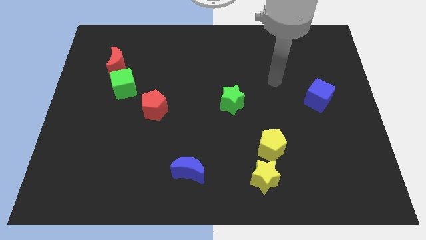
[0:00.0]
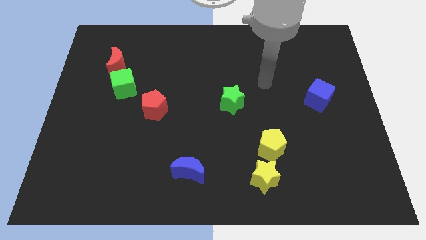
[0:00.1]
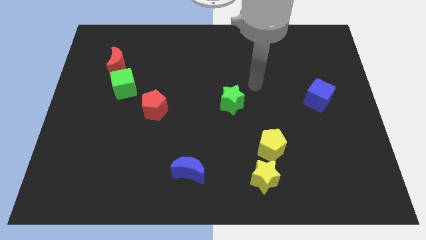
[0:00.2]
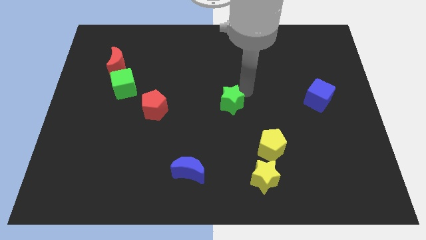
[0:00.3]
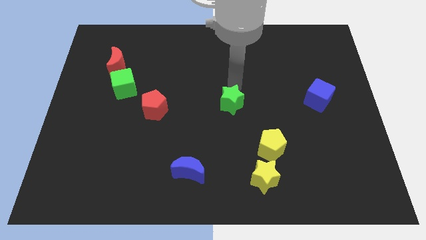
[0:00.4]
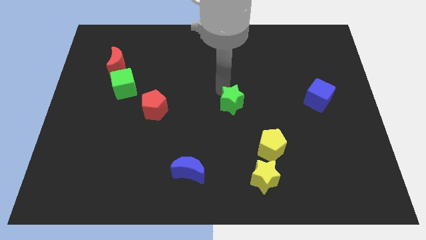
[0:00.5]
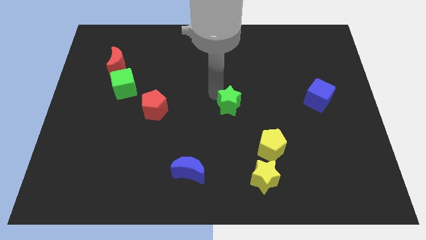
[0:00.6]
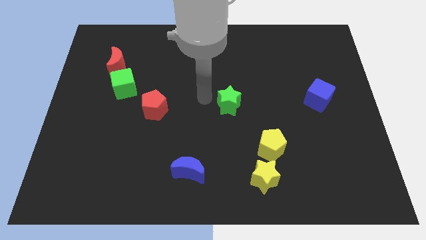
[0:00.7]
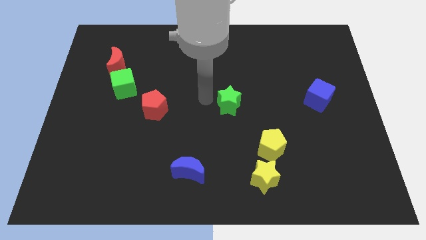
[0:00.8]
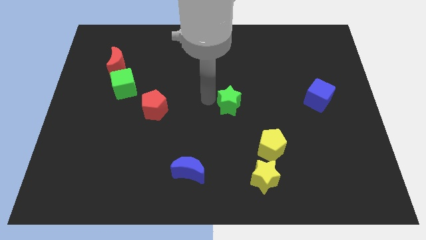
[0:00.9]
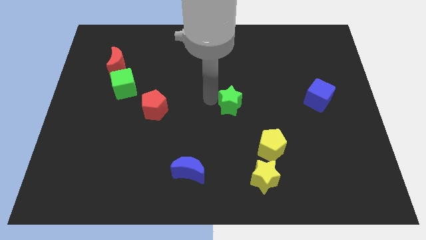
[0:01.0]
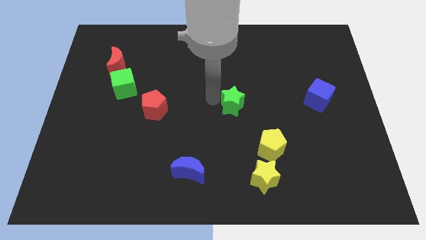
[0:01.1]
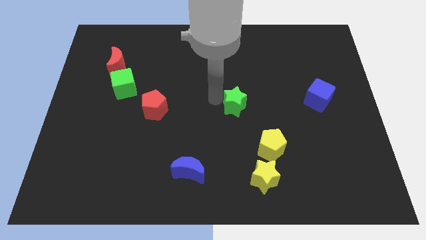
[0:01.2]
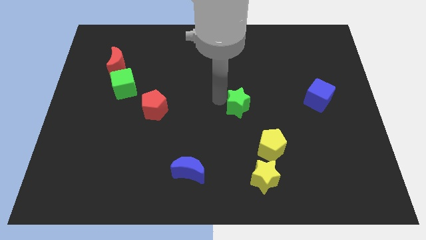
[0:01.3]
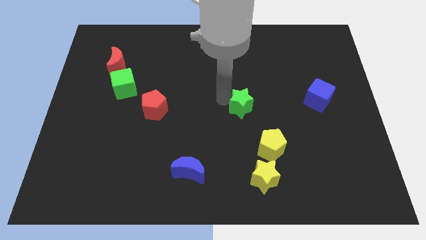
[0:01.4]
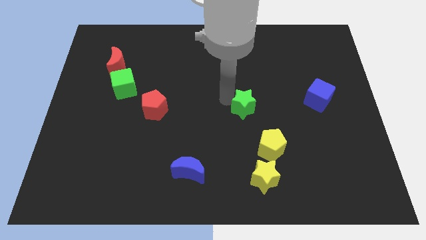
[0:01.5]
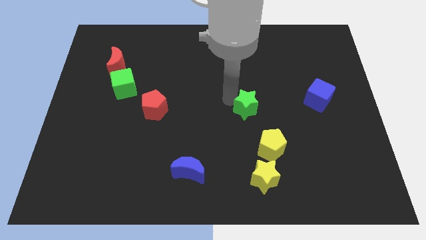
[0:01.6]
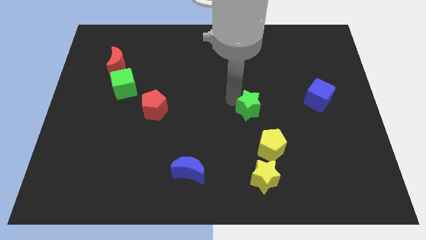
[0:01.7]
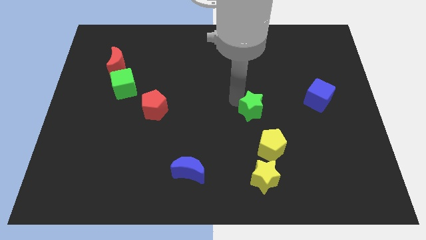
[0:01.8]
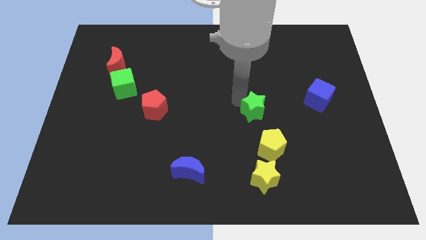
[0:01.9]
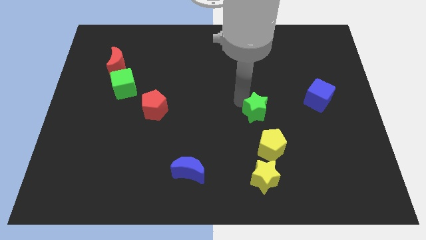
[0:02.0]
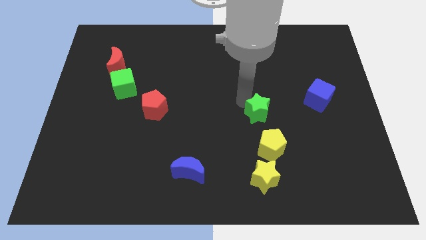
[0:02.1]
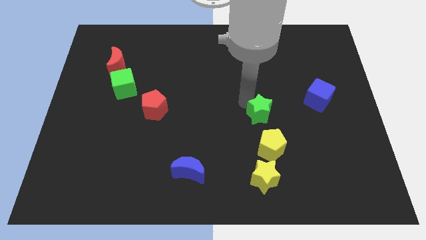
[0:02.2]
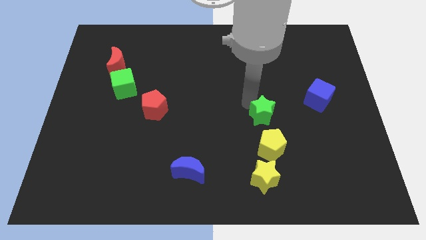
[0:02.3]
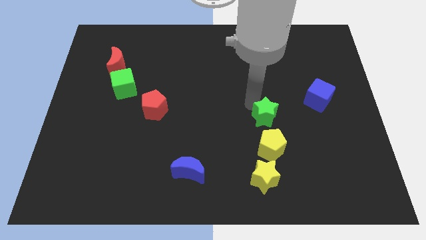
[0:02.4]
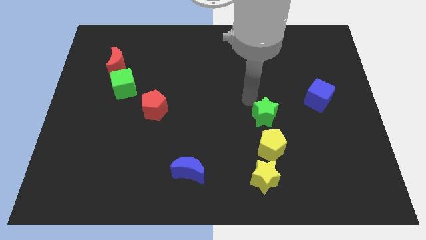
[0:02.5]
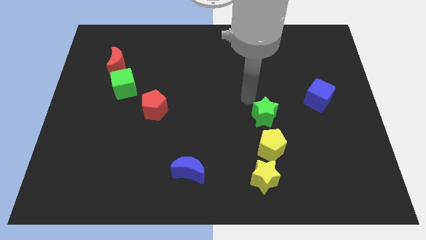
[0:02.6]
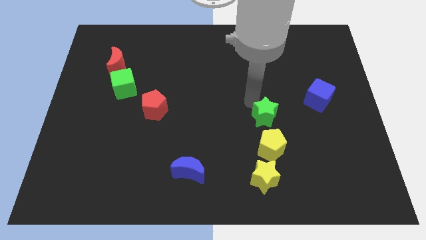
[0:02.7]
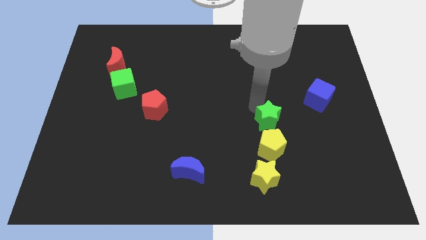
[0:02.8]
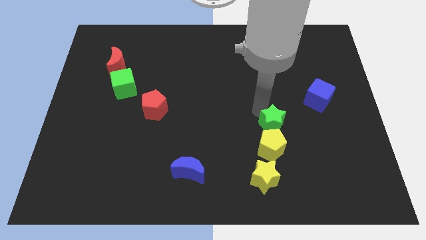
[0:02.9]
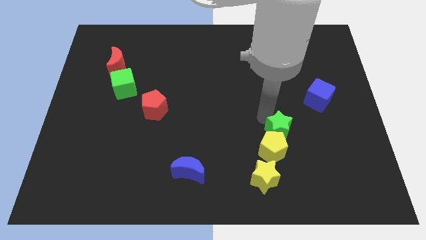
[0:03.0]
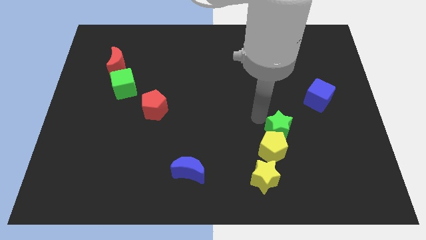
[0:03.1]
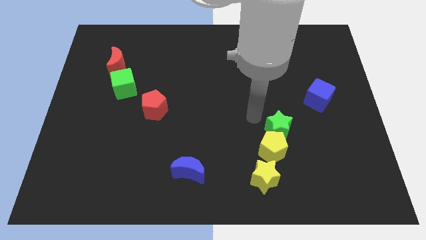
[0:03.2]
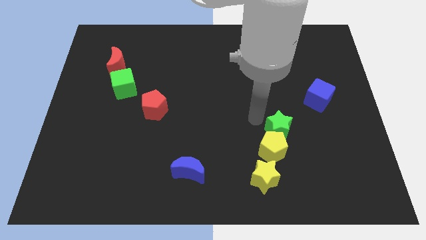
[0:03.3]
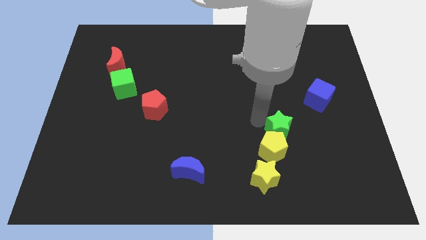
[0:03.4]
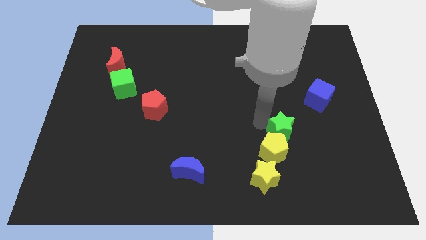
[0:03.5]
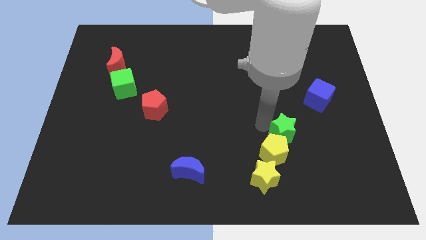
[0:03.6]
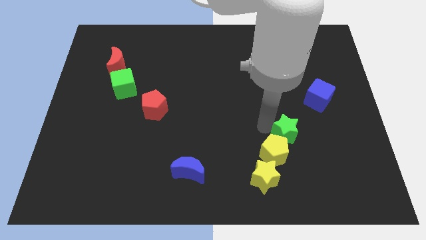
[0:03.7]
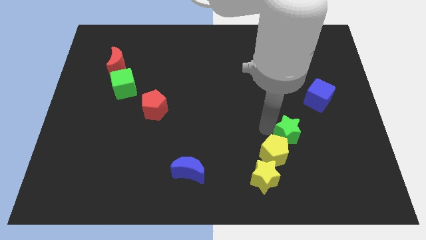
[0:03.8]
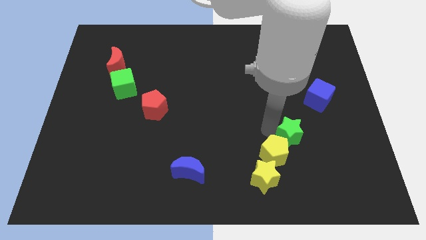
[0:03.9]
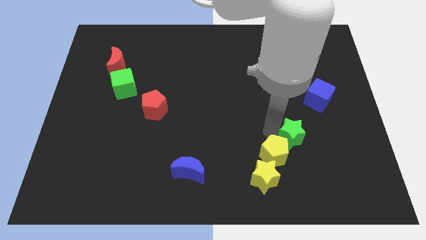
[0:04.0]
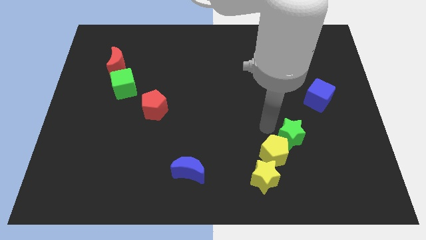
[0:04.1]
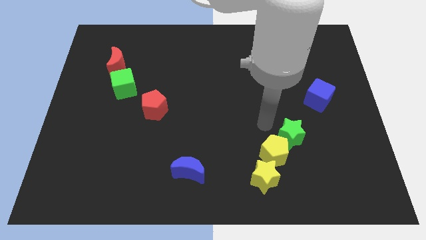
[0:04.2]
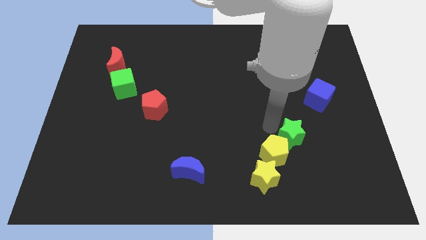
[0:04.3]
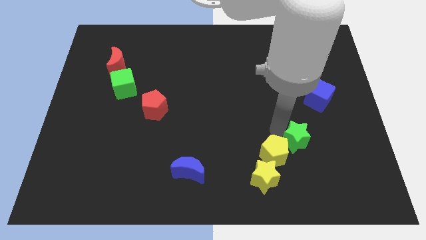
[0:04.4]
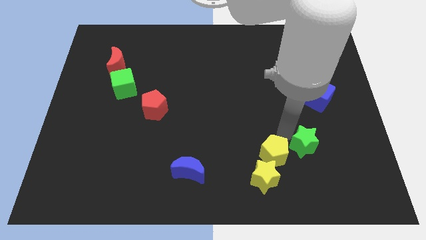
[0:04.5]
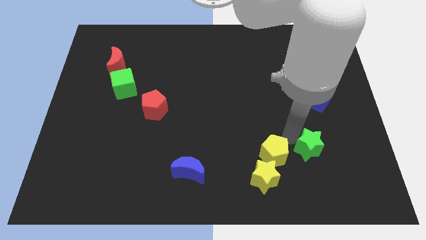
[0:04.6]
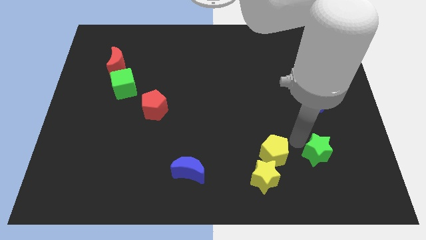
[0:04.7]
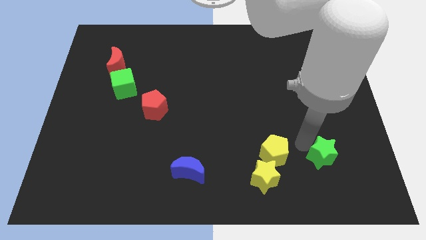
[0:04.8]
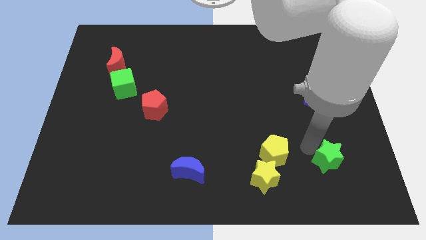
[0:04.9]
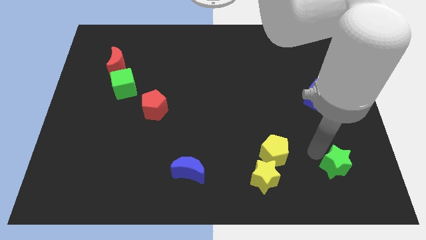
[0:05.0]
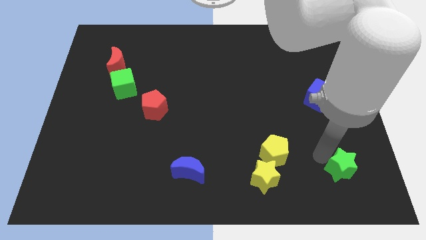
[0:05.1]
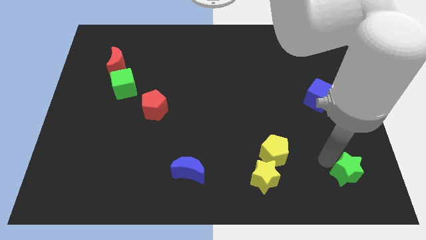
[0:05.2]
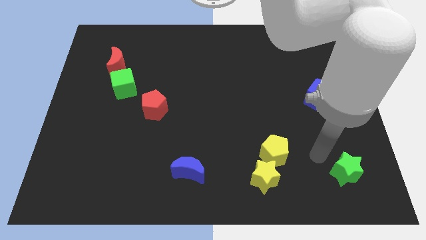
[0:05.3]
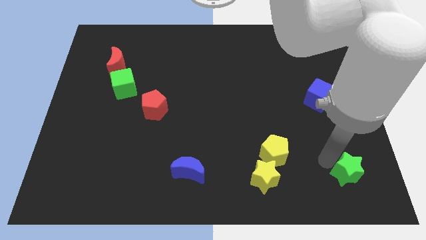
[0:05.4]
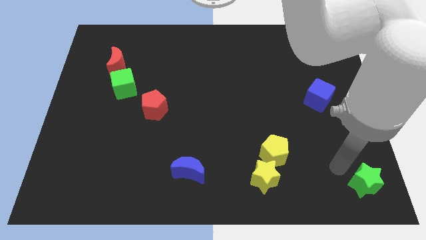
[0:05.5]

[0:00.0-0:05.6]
slide the green star to the bottom right corner

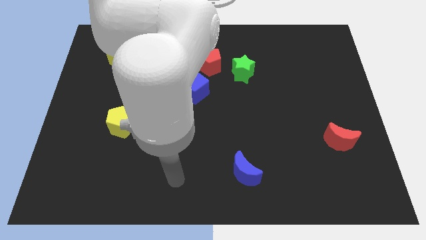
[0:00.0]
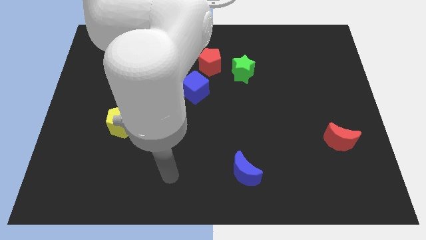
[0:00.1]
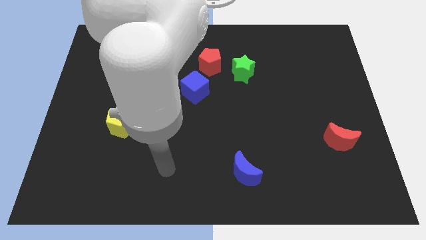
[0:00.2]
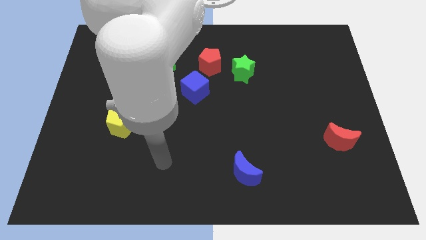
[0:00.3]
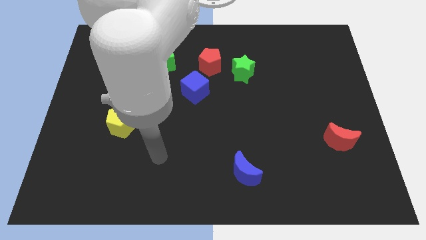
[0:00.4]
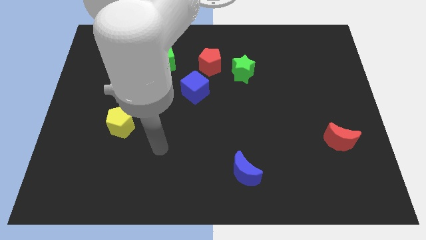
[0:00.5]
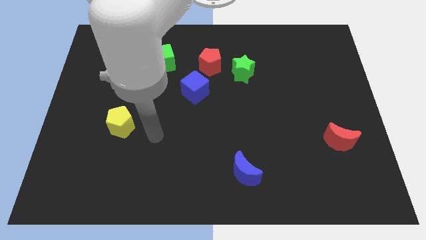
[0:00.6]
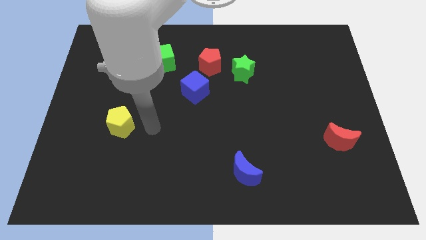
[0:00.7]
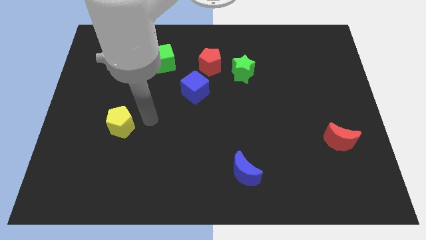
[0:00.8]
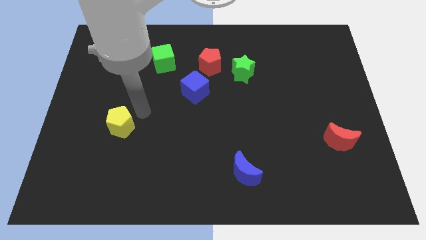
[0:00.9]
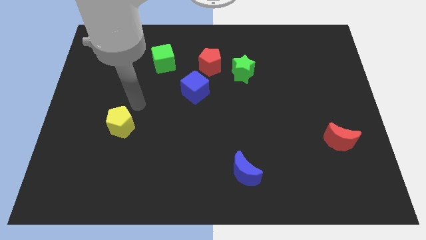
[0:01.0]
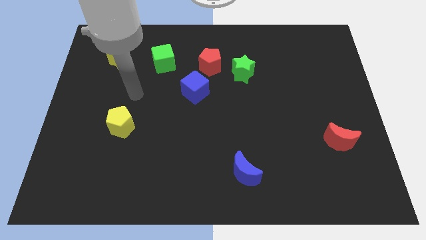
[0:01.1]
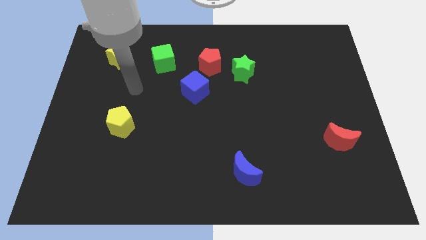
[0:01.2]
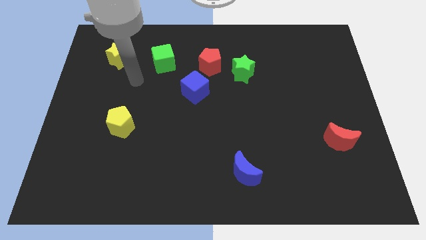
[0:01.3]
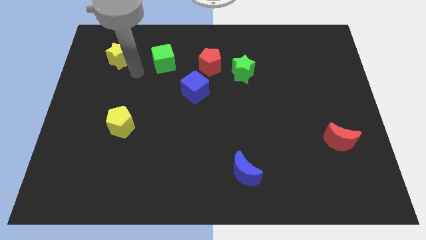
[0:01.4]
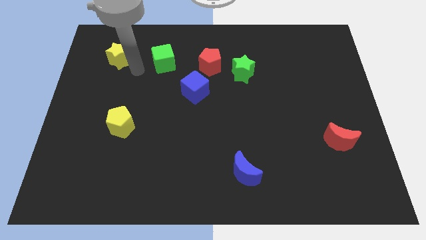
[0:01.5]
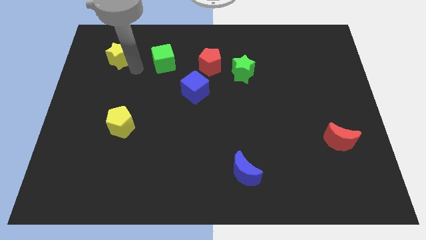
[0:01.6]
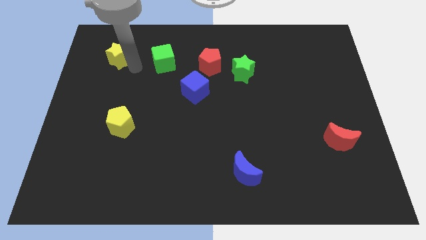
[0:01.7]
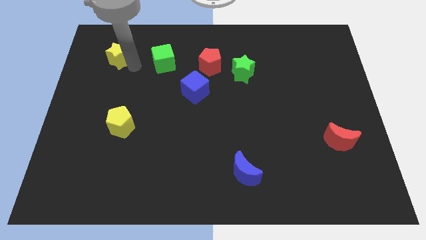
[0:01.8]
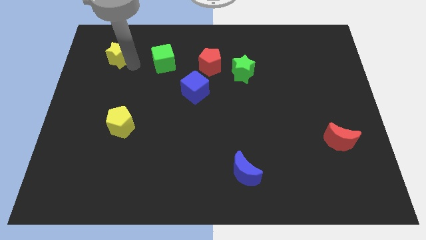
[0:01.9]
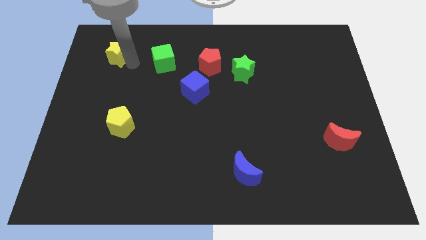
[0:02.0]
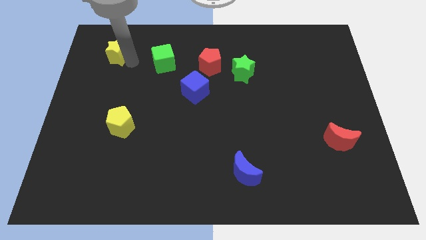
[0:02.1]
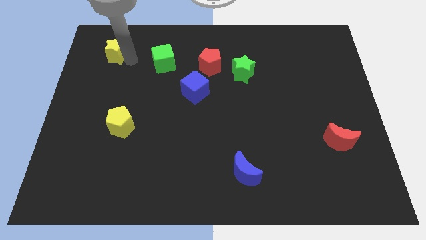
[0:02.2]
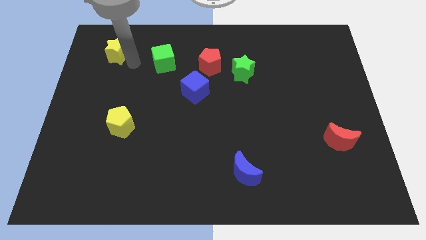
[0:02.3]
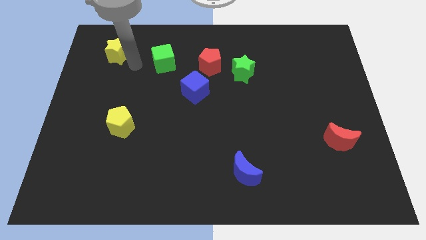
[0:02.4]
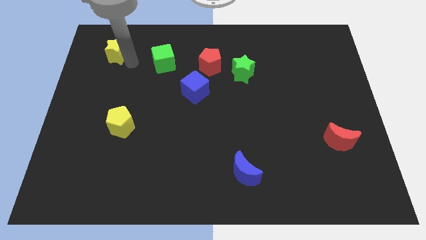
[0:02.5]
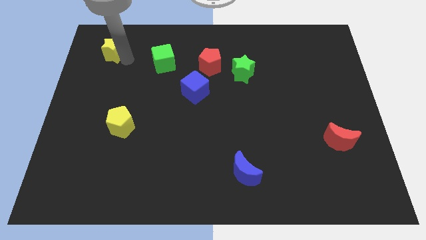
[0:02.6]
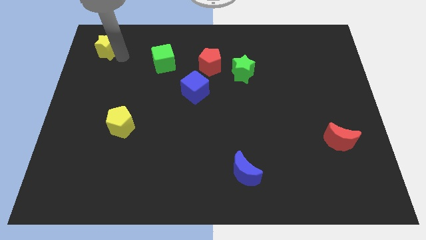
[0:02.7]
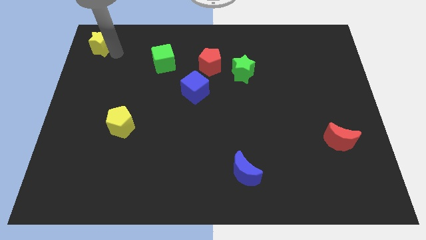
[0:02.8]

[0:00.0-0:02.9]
put the yellow star to the top left corner
